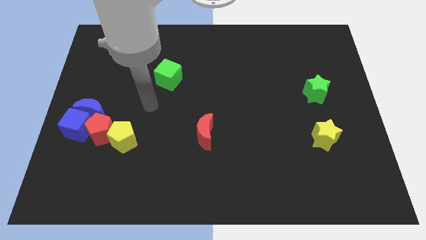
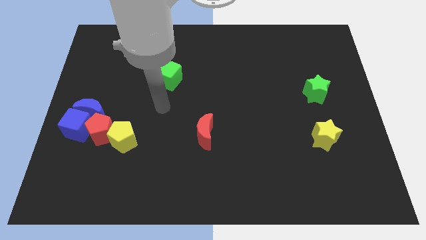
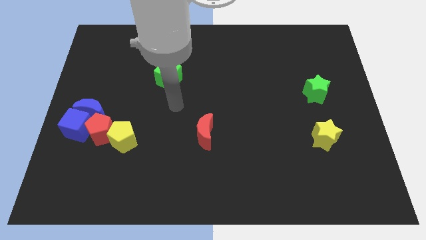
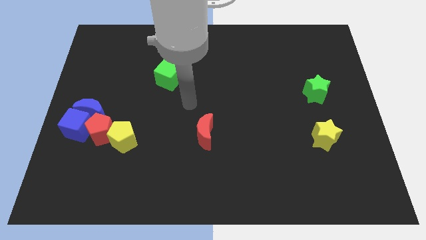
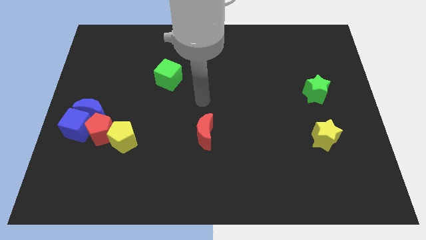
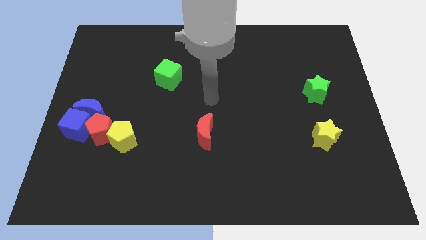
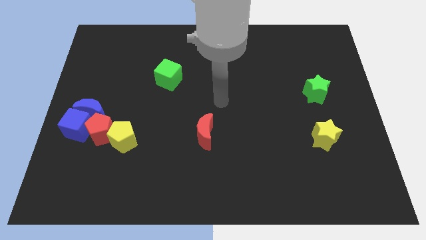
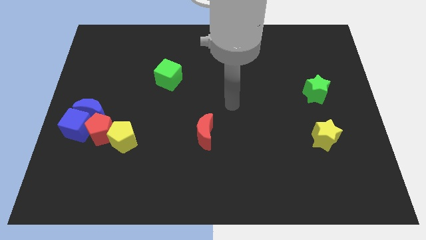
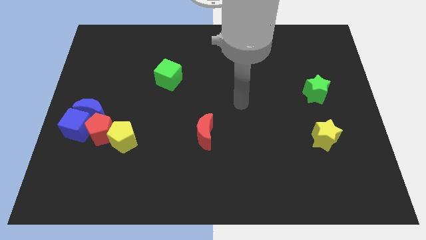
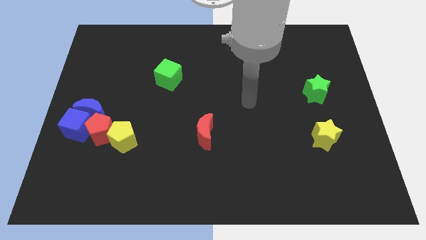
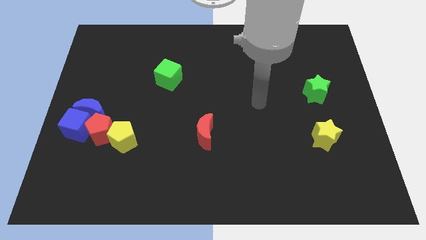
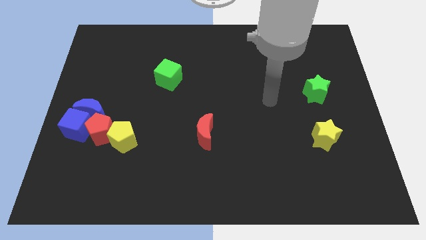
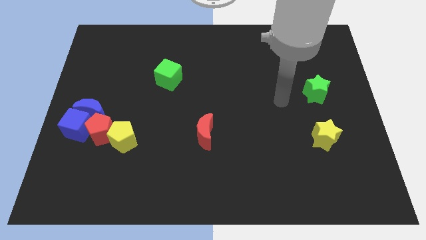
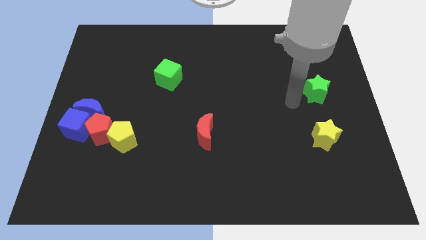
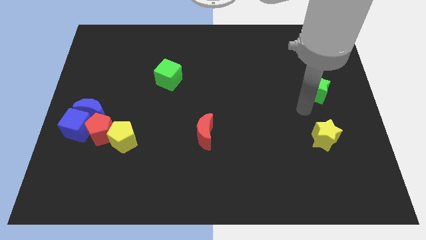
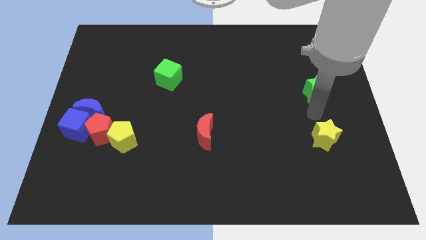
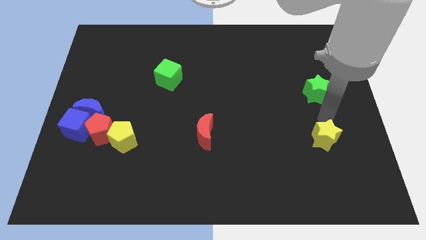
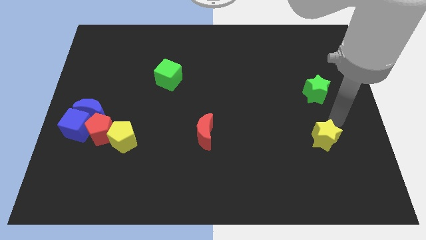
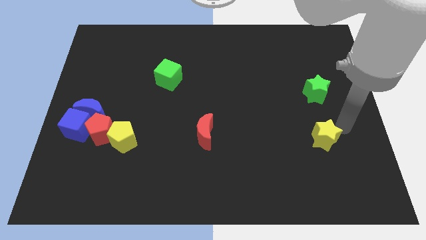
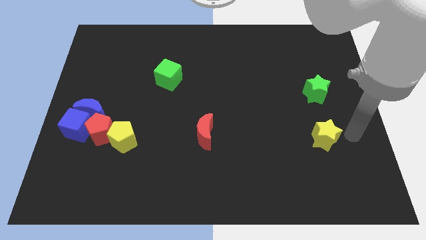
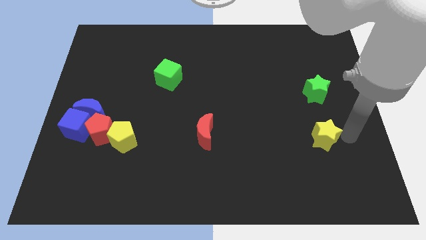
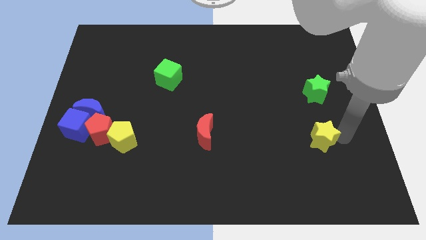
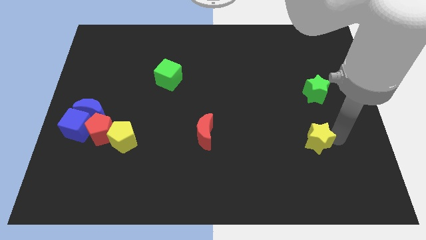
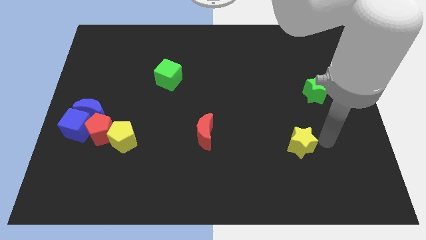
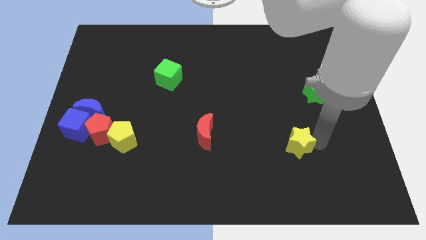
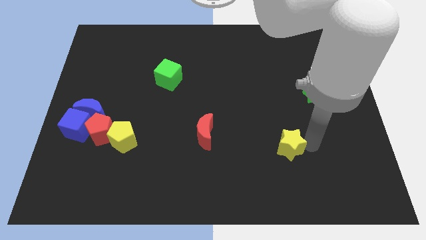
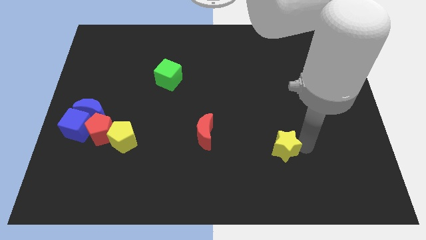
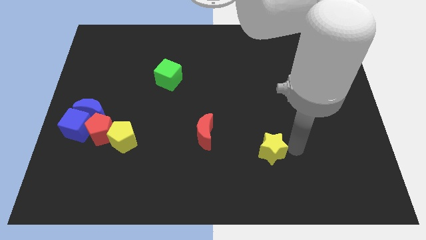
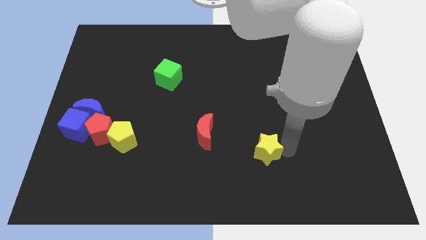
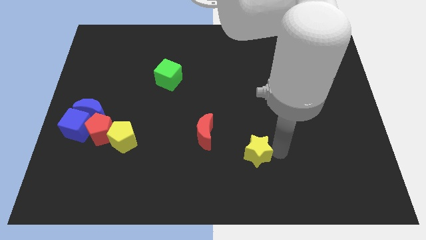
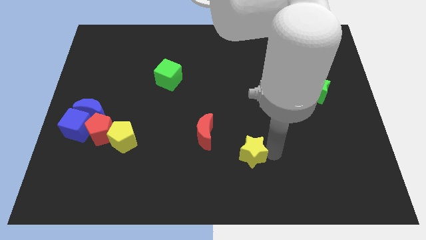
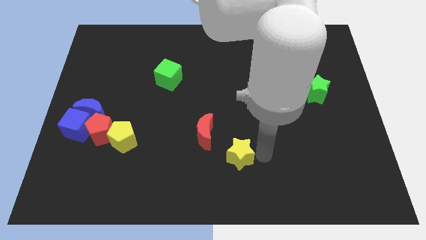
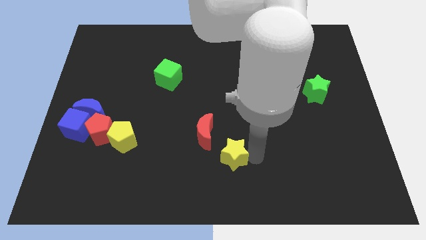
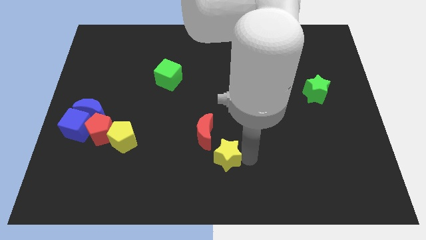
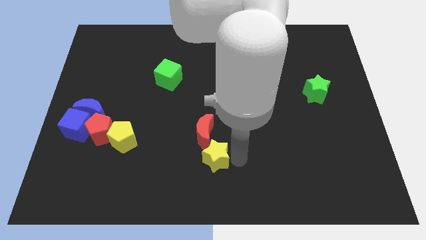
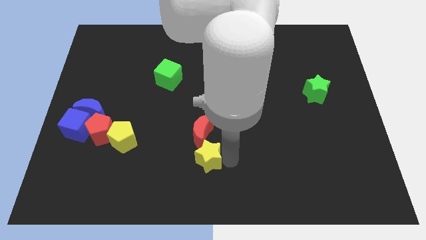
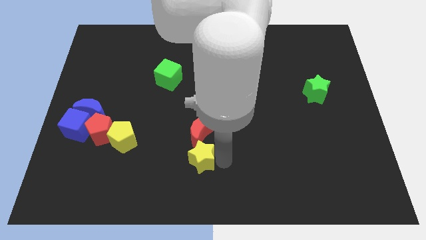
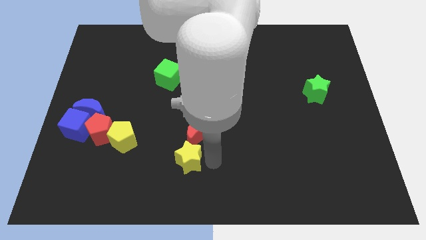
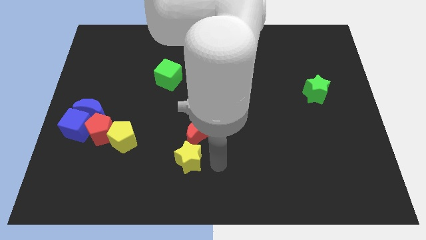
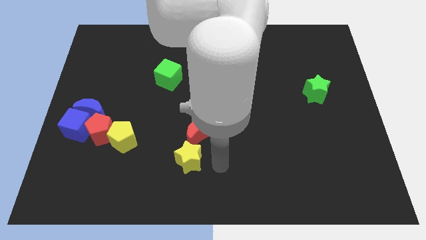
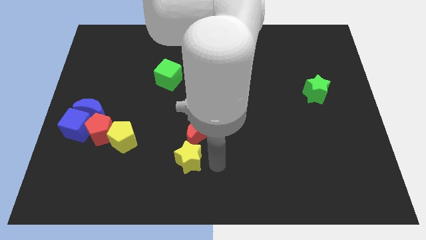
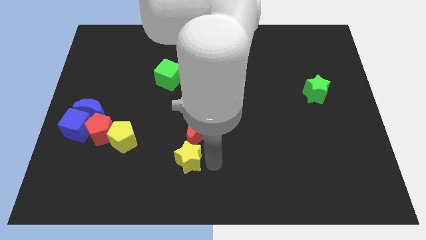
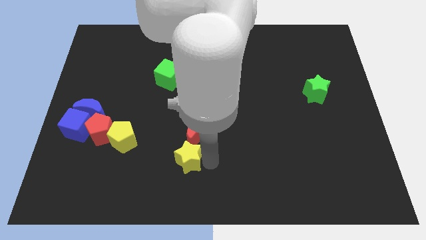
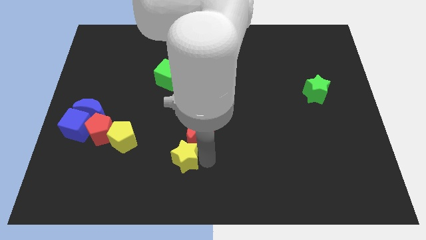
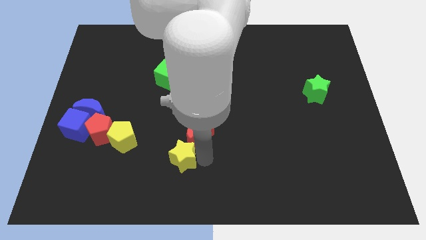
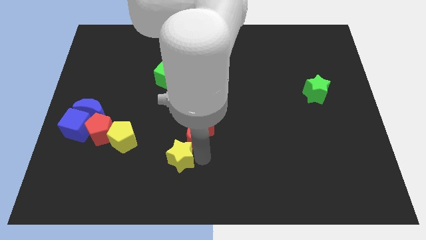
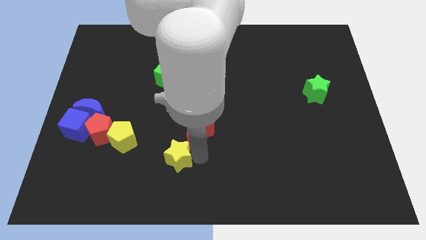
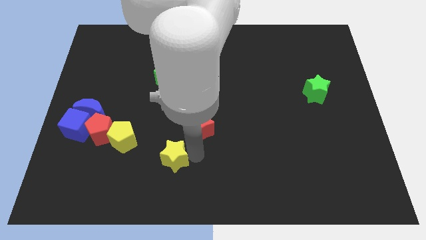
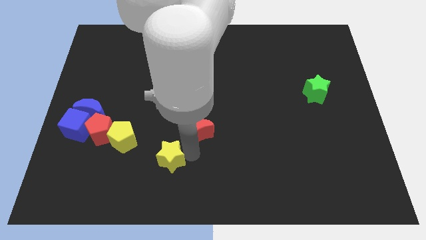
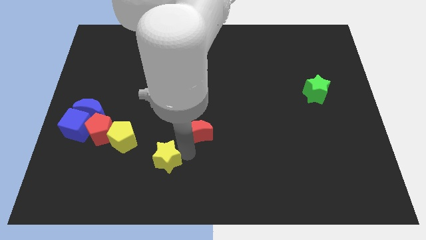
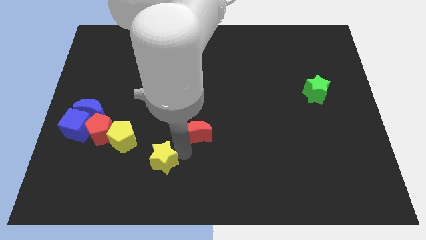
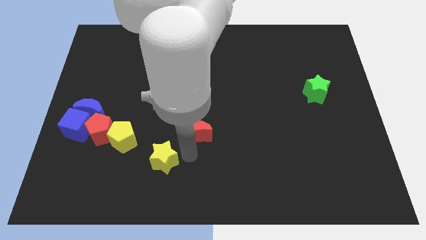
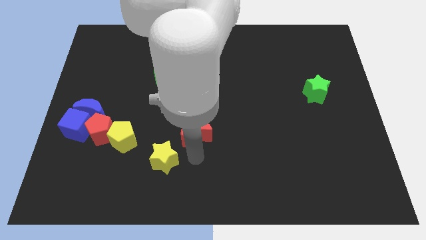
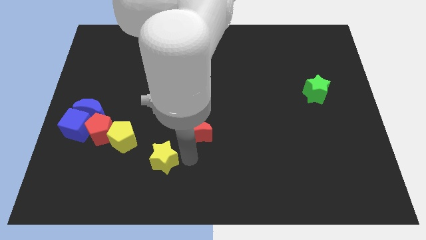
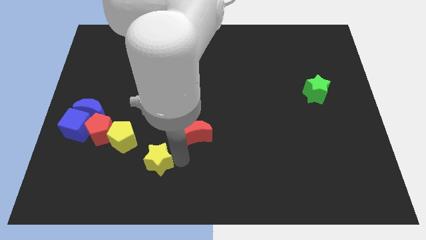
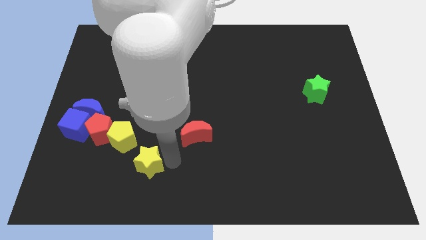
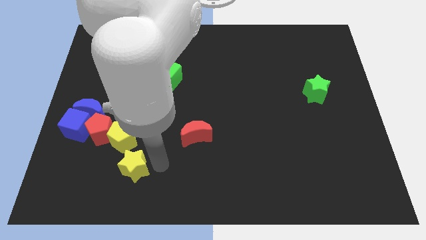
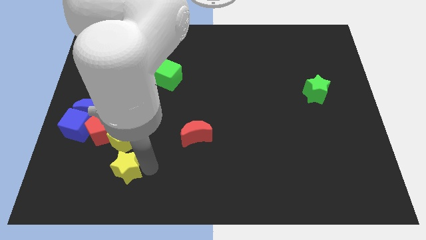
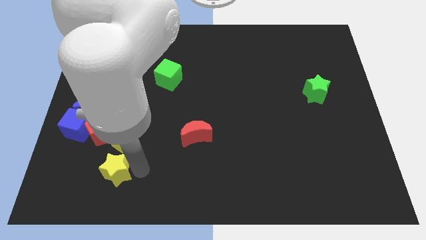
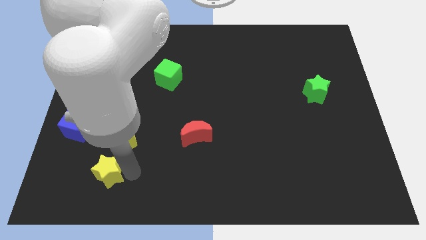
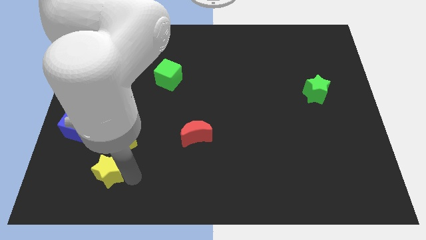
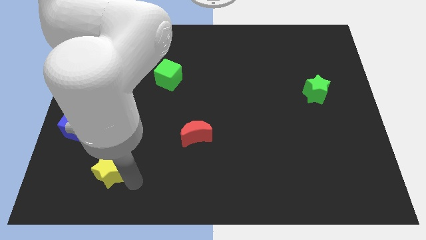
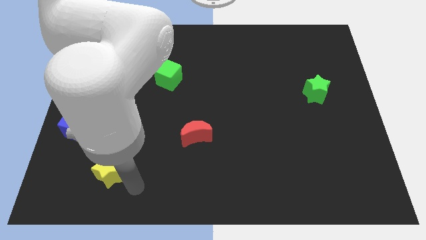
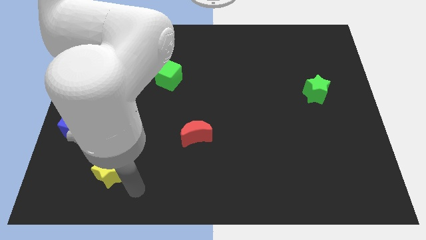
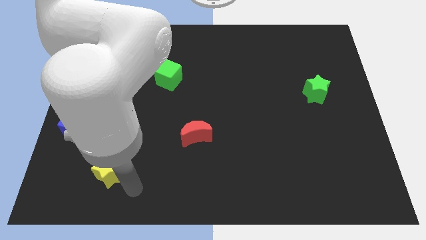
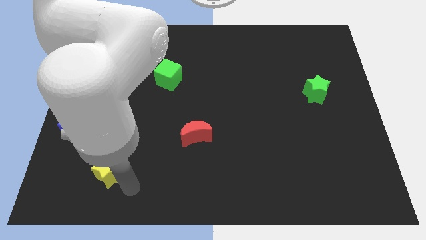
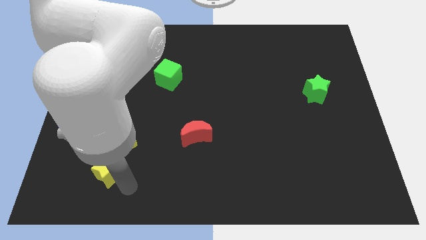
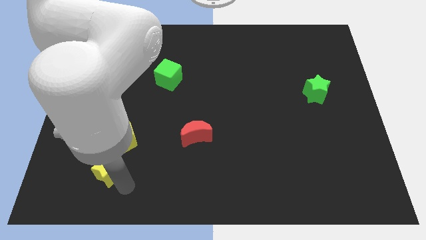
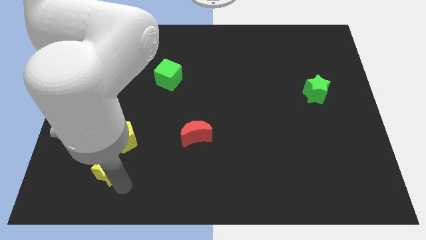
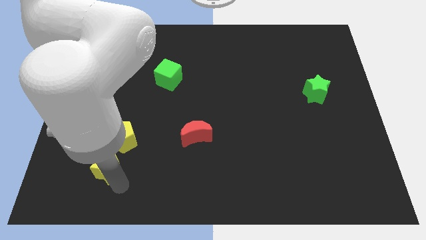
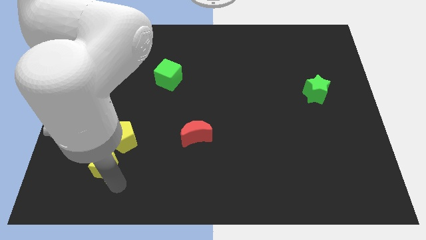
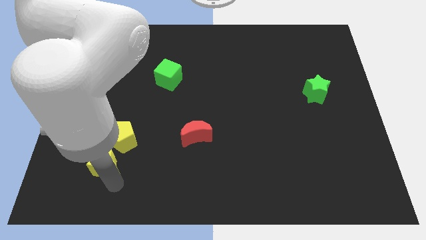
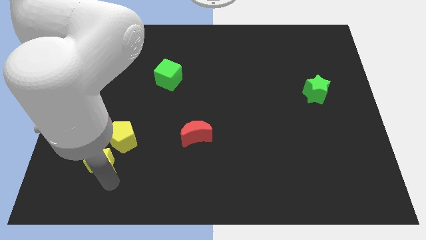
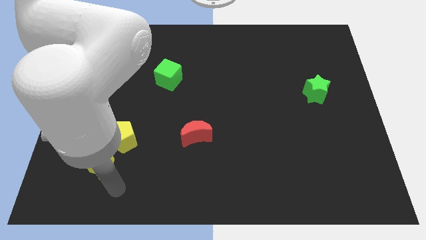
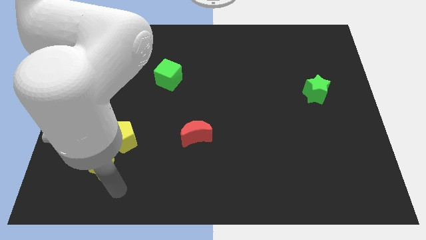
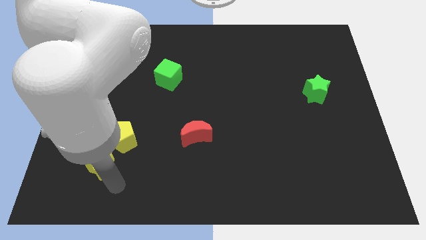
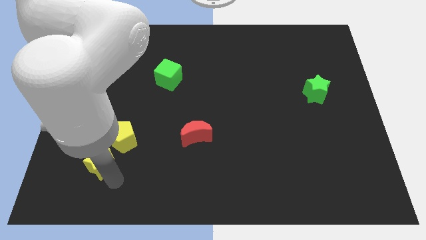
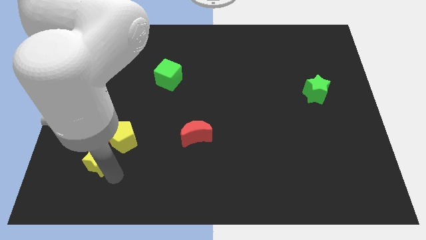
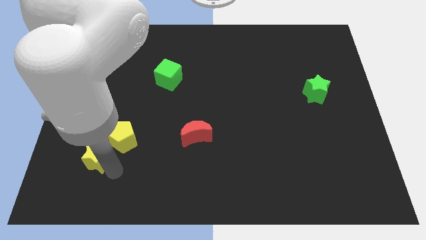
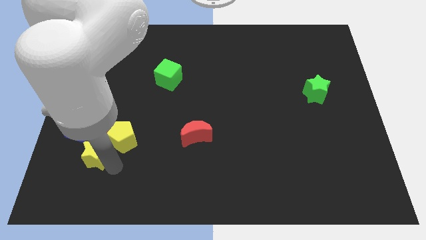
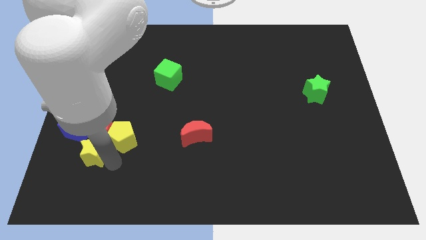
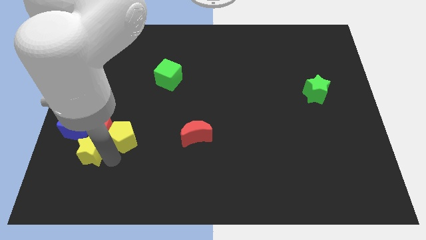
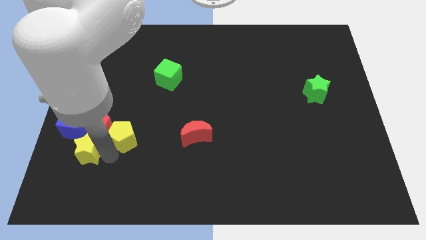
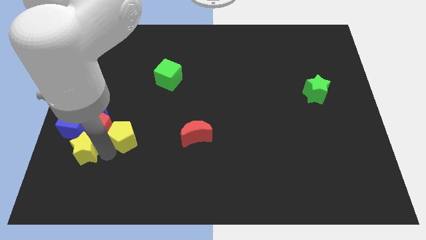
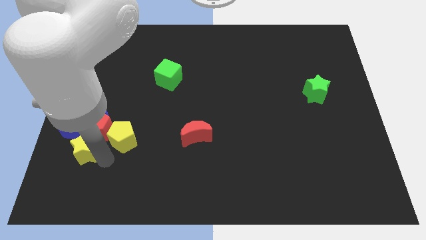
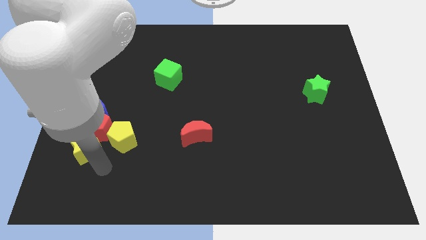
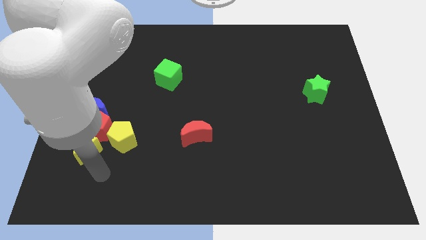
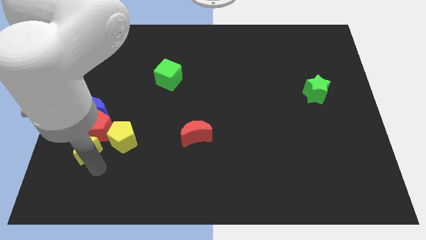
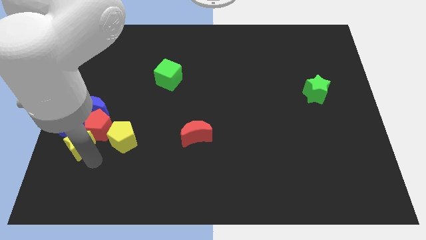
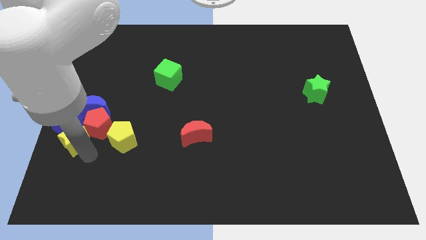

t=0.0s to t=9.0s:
slide the yellow star next to the blue cube
